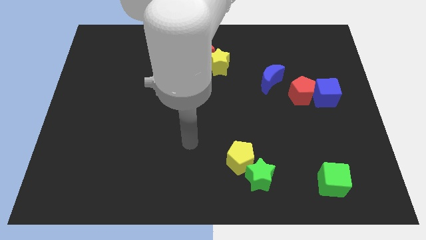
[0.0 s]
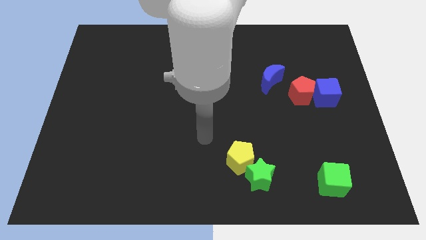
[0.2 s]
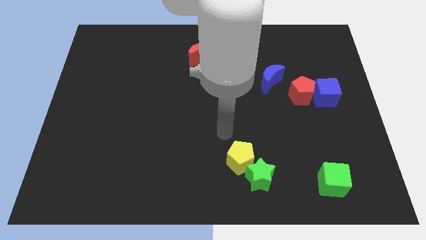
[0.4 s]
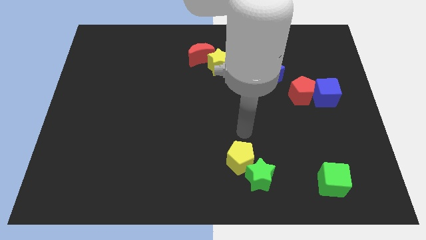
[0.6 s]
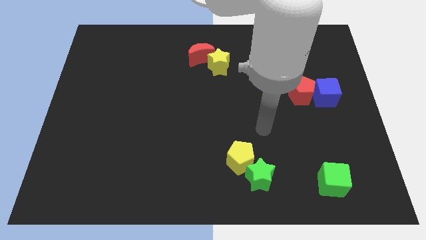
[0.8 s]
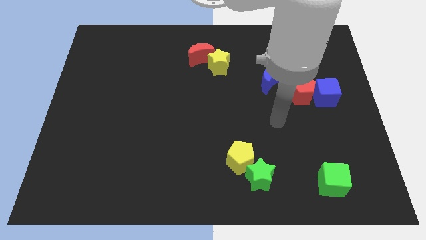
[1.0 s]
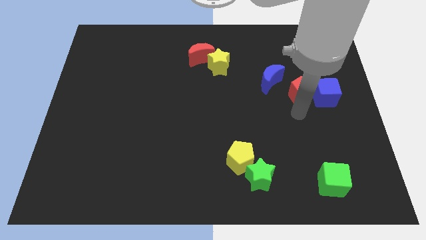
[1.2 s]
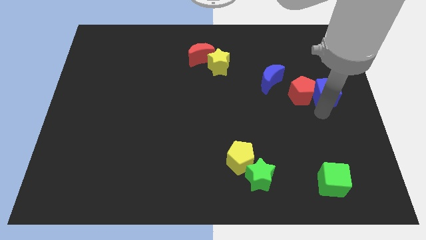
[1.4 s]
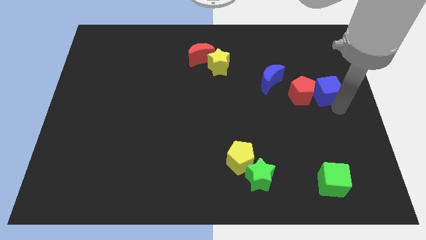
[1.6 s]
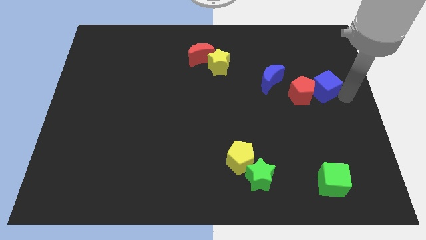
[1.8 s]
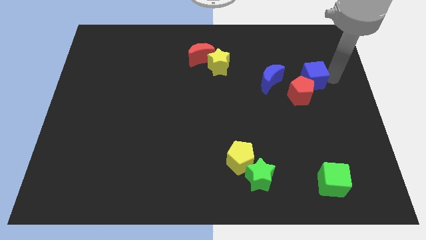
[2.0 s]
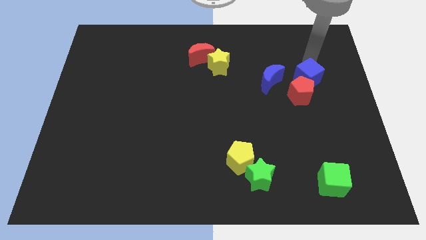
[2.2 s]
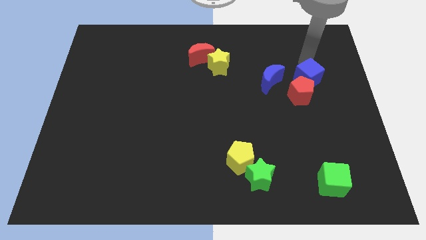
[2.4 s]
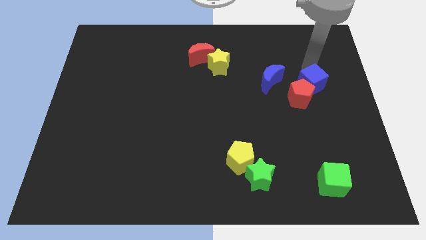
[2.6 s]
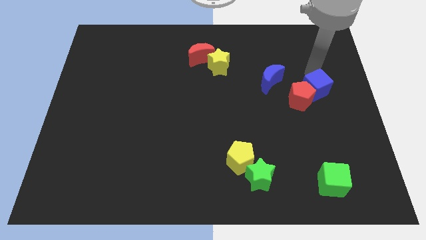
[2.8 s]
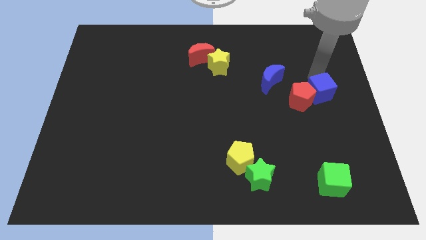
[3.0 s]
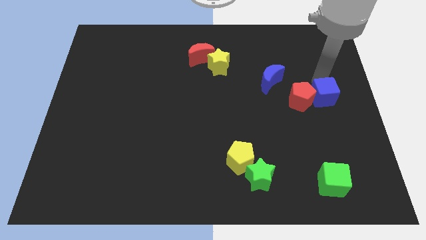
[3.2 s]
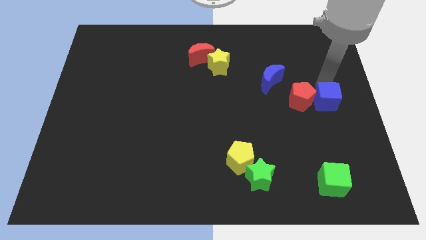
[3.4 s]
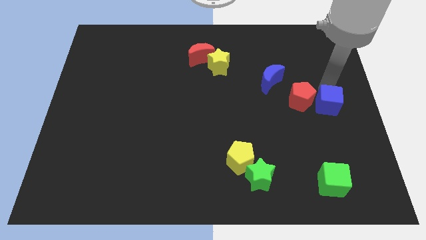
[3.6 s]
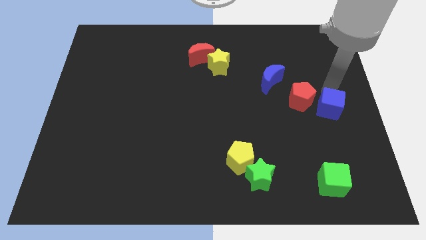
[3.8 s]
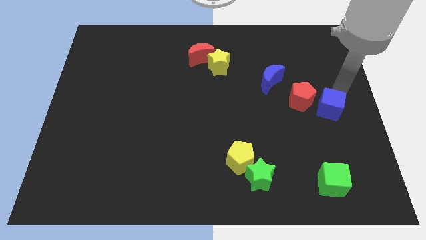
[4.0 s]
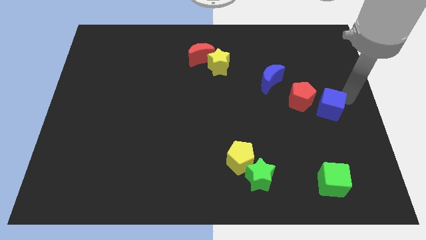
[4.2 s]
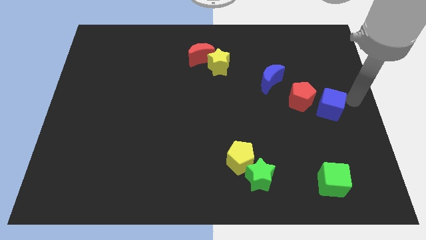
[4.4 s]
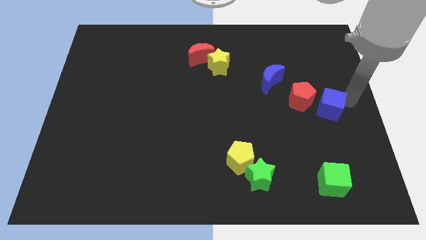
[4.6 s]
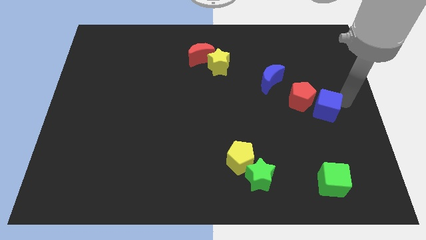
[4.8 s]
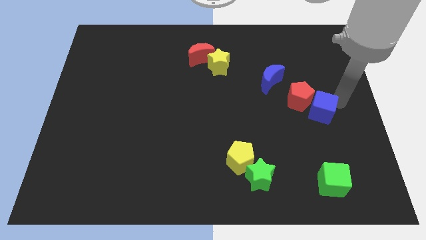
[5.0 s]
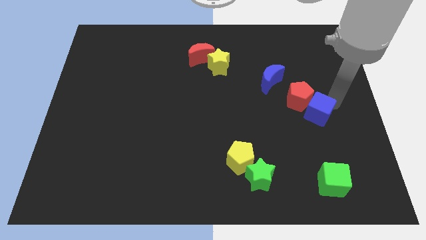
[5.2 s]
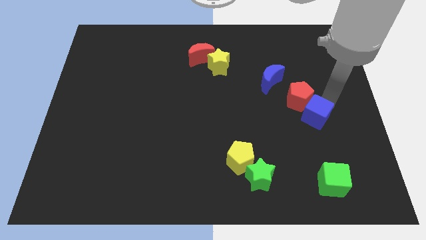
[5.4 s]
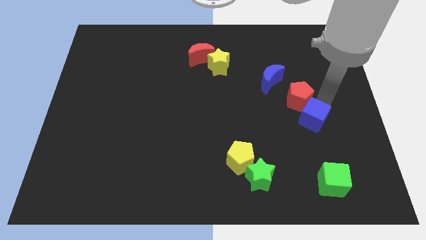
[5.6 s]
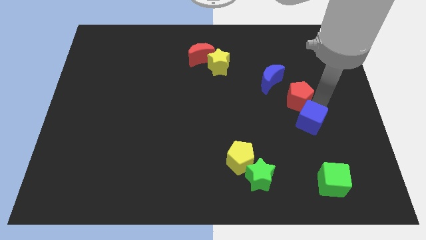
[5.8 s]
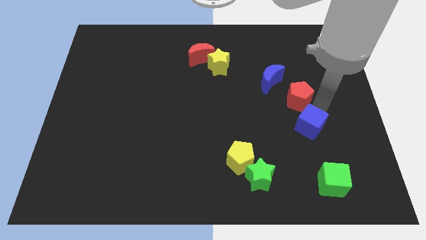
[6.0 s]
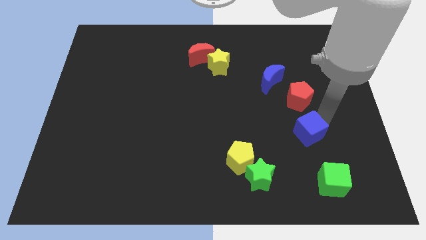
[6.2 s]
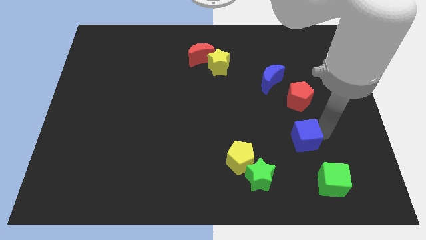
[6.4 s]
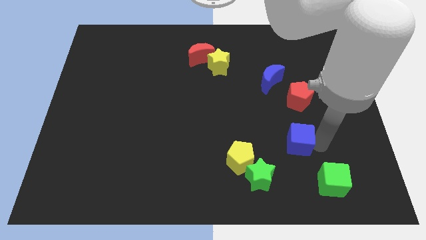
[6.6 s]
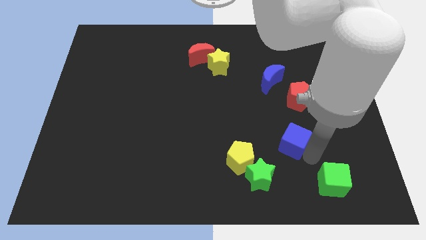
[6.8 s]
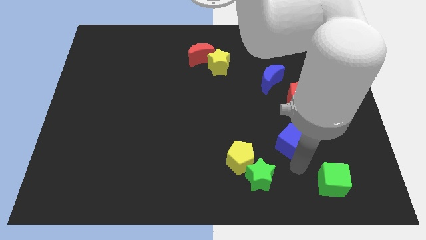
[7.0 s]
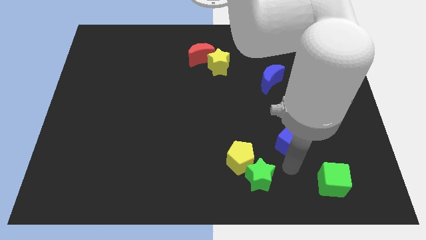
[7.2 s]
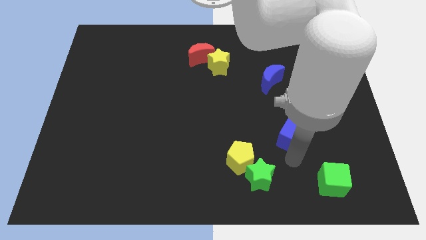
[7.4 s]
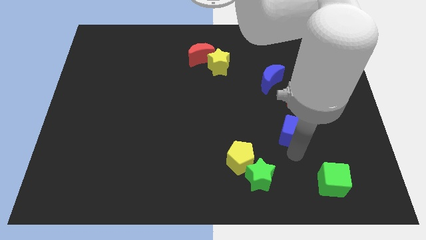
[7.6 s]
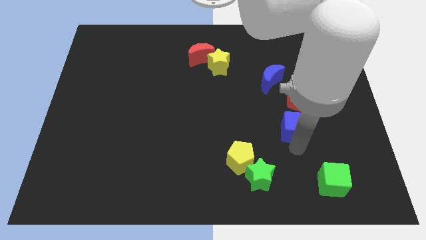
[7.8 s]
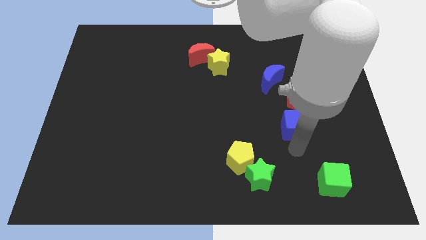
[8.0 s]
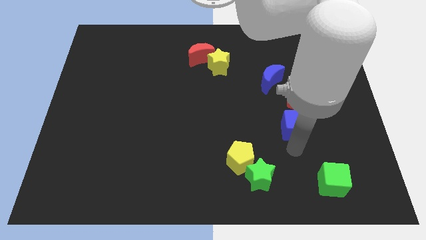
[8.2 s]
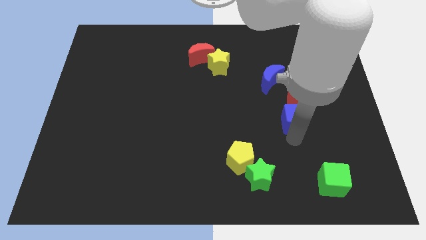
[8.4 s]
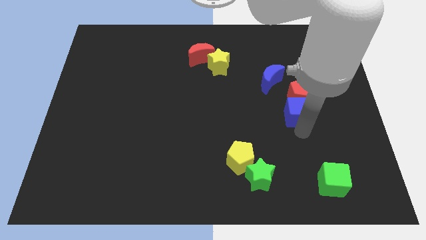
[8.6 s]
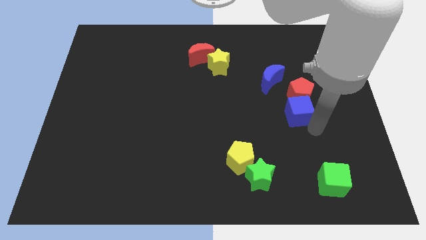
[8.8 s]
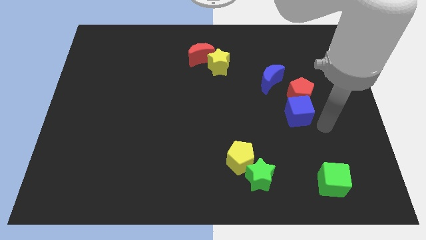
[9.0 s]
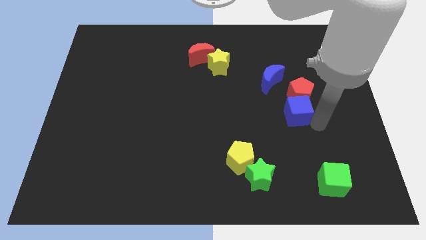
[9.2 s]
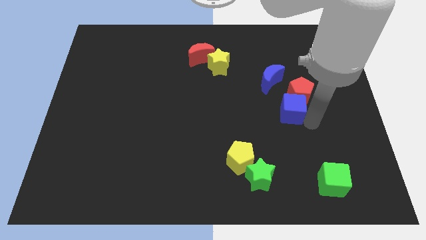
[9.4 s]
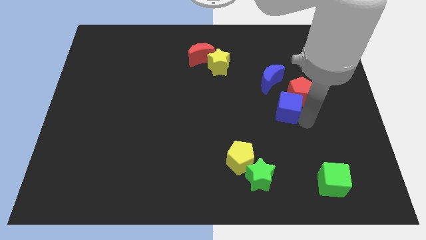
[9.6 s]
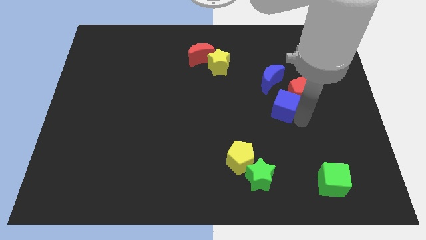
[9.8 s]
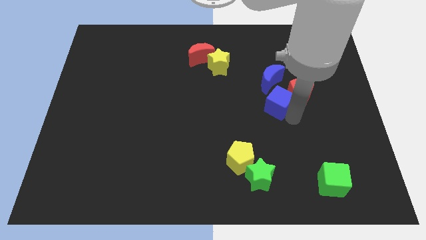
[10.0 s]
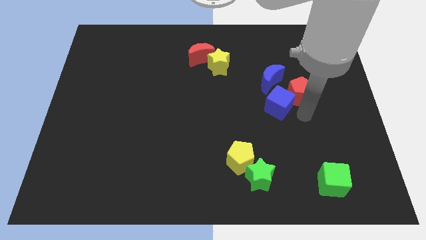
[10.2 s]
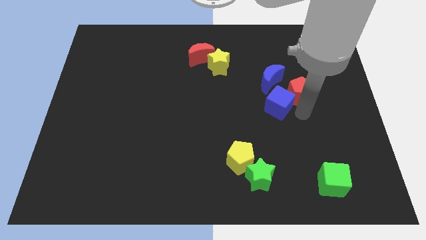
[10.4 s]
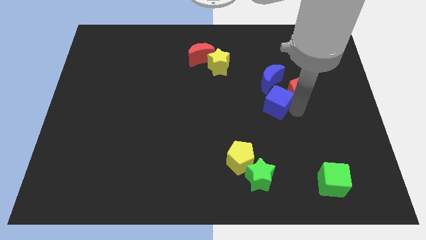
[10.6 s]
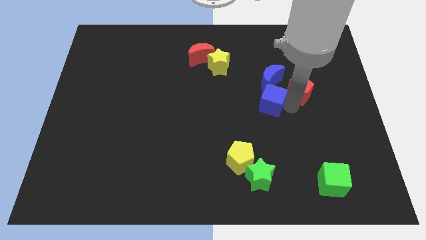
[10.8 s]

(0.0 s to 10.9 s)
put the blue cube to the bottom left of the blue moon

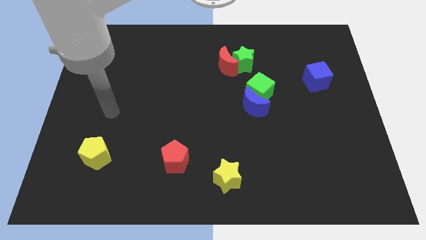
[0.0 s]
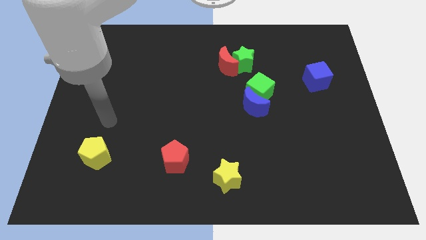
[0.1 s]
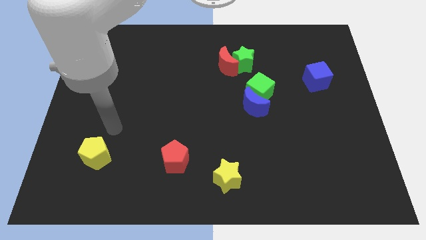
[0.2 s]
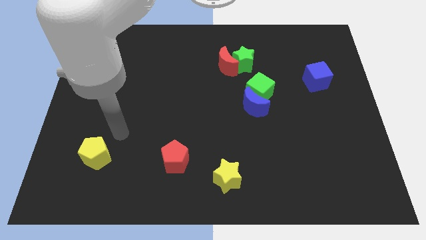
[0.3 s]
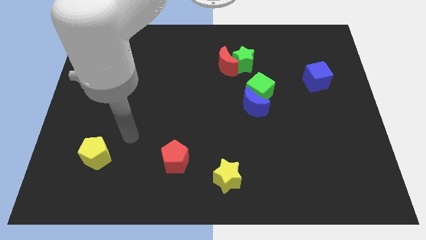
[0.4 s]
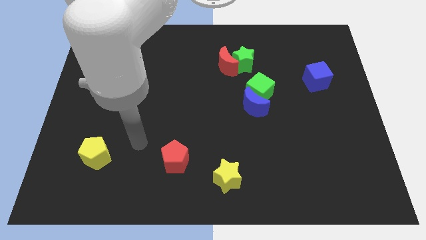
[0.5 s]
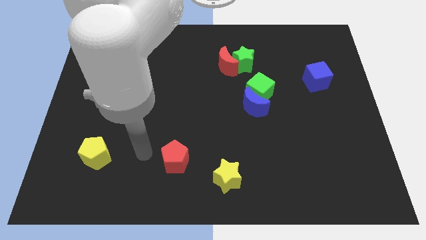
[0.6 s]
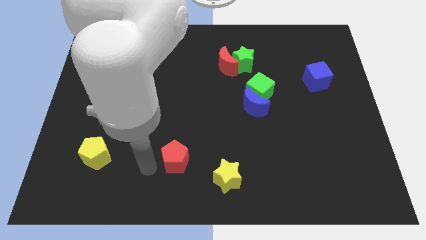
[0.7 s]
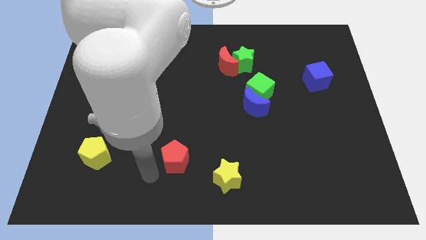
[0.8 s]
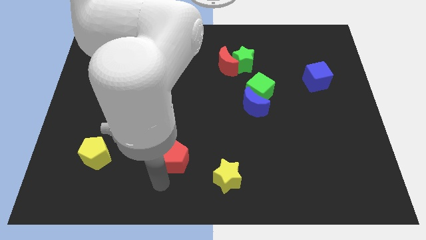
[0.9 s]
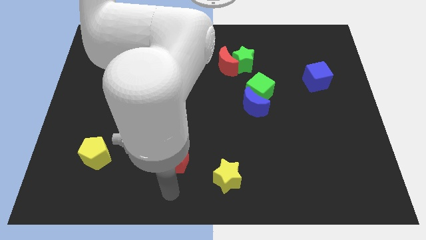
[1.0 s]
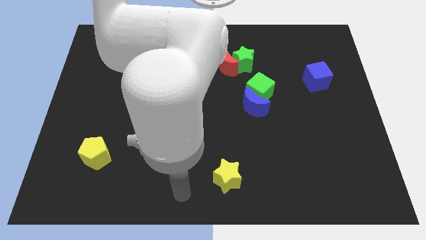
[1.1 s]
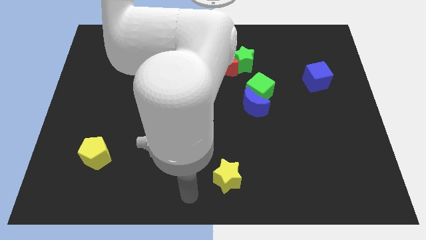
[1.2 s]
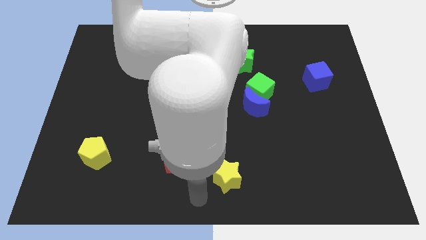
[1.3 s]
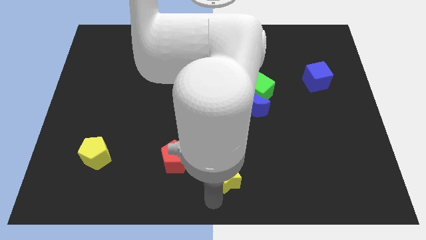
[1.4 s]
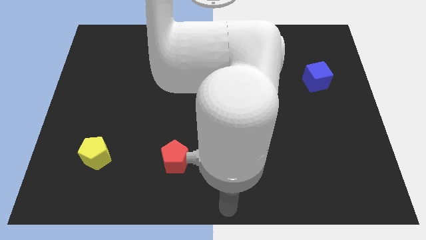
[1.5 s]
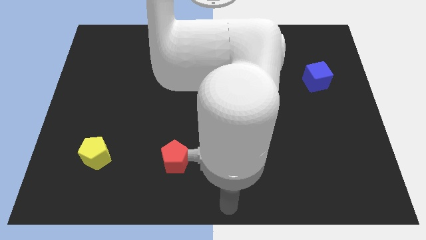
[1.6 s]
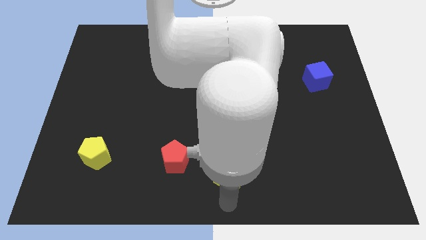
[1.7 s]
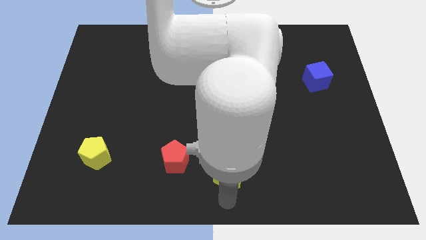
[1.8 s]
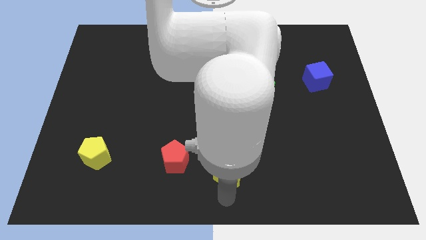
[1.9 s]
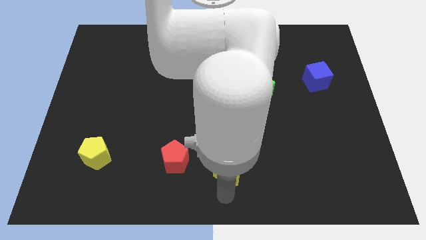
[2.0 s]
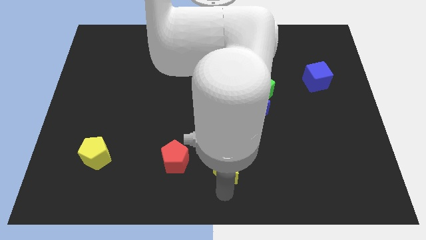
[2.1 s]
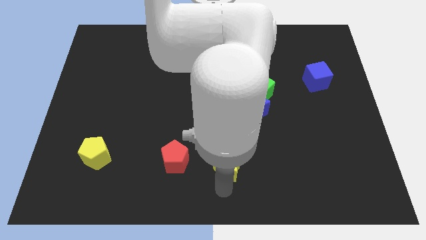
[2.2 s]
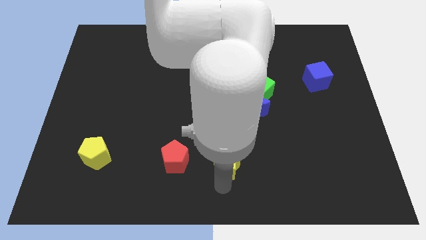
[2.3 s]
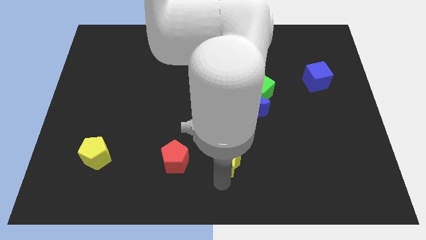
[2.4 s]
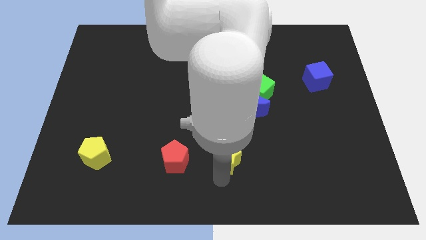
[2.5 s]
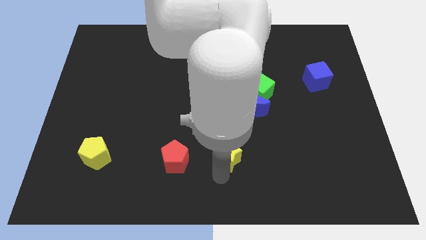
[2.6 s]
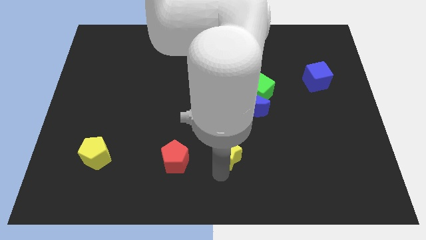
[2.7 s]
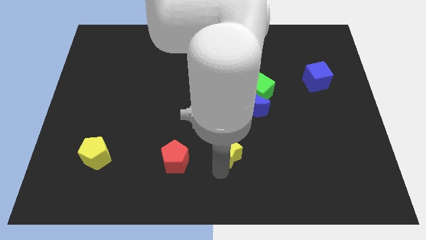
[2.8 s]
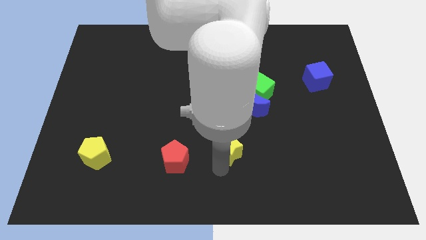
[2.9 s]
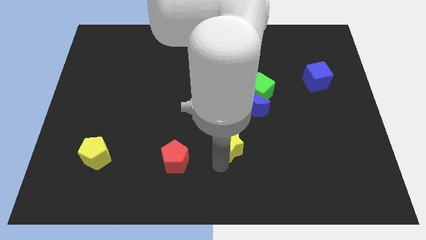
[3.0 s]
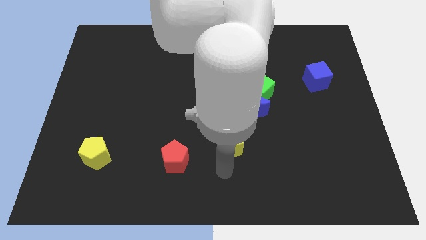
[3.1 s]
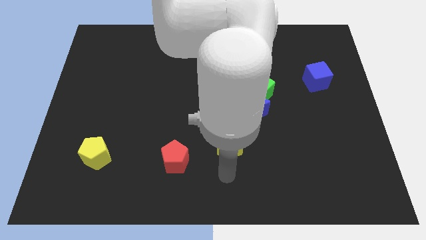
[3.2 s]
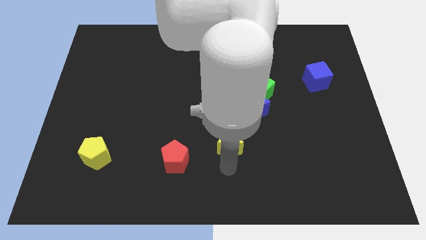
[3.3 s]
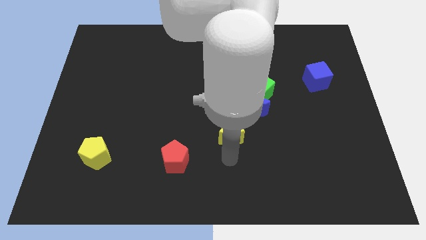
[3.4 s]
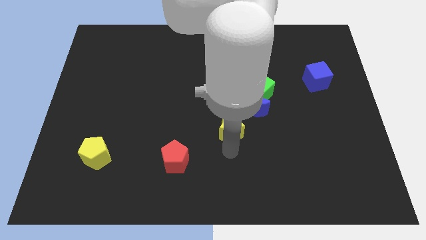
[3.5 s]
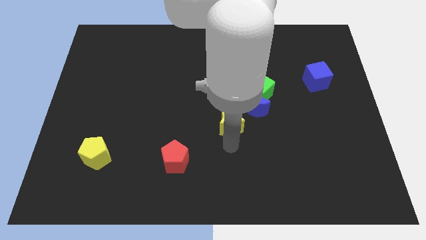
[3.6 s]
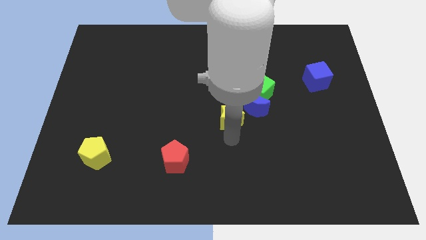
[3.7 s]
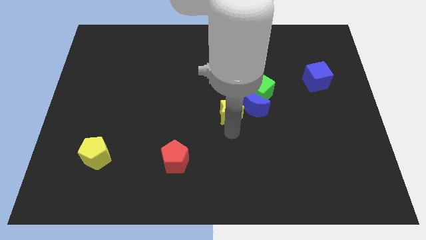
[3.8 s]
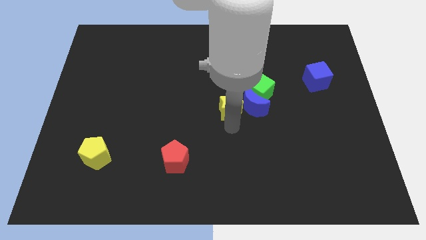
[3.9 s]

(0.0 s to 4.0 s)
put the yellow star to the top left of the blue moon
